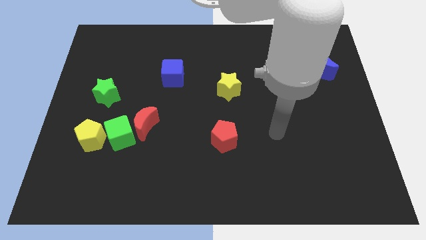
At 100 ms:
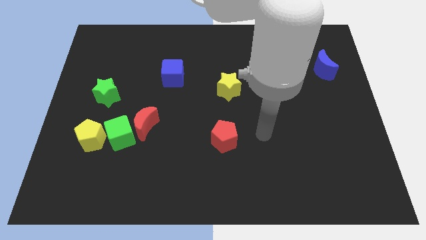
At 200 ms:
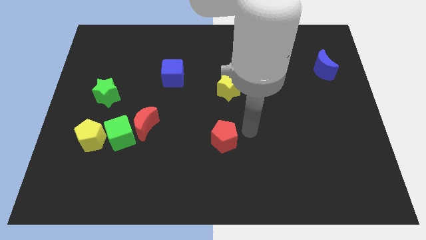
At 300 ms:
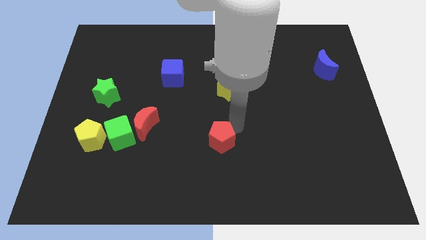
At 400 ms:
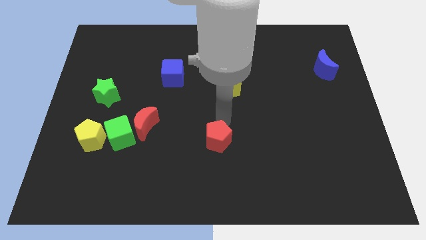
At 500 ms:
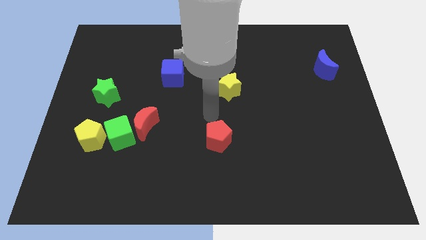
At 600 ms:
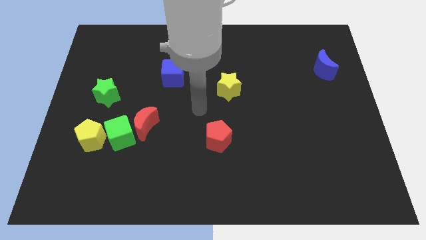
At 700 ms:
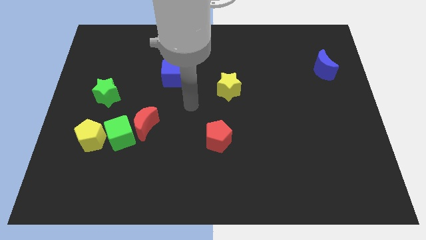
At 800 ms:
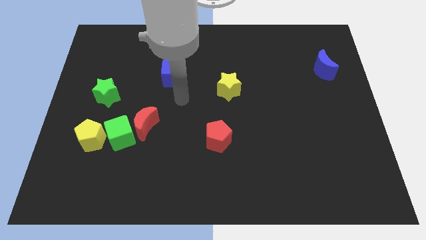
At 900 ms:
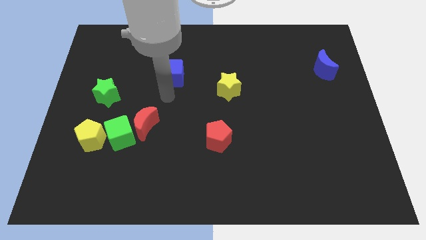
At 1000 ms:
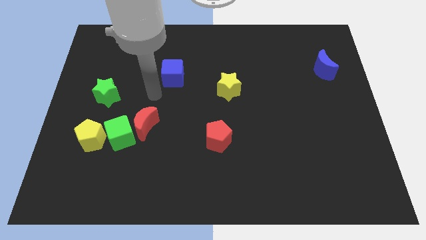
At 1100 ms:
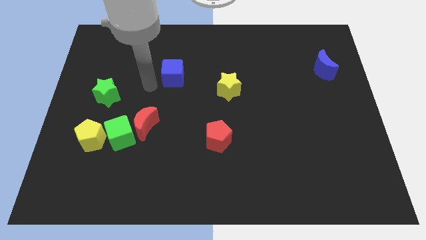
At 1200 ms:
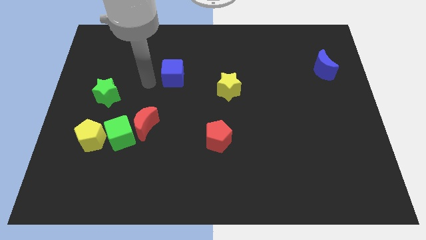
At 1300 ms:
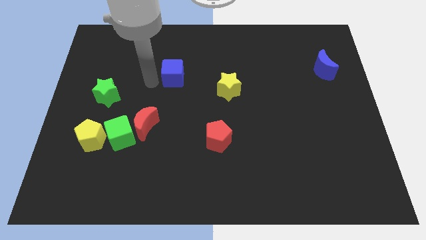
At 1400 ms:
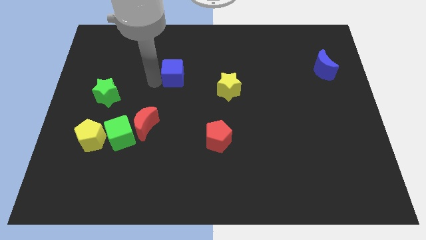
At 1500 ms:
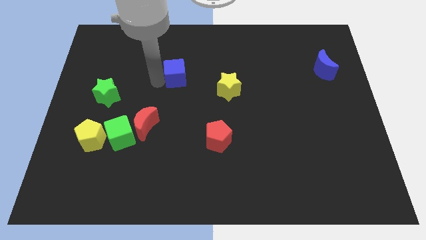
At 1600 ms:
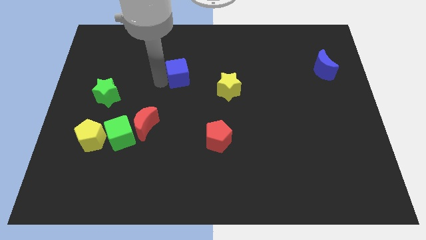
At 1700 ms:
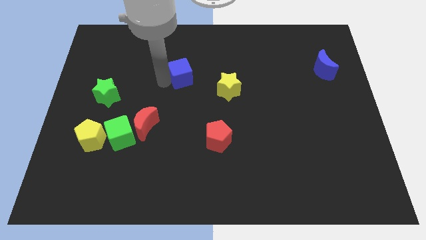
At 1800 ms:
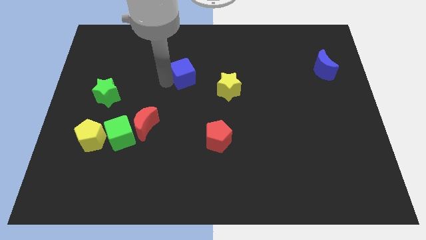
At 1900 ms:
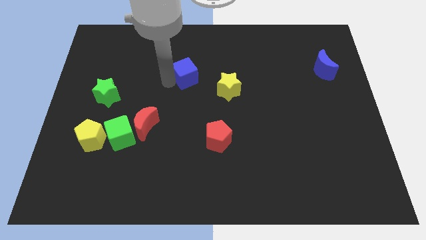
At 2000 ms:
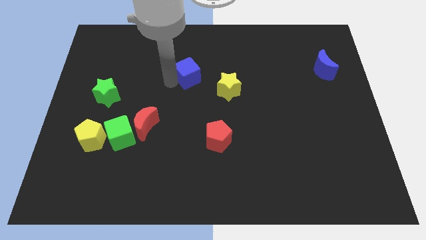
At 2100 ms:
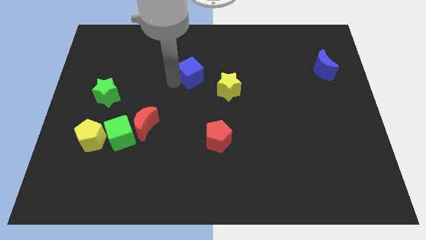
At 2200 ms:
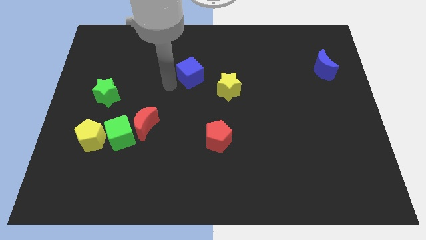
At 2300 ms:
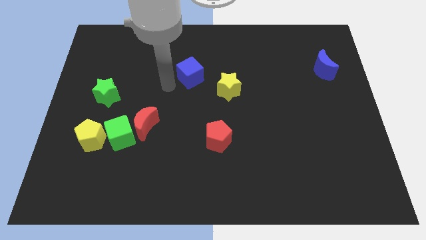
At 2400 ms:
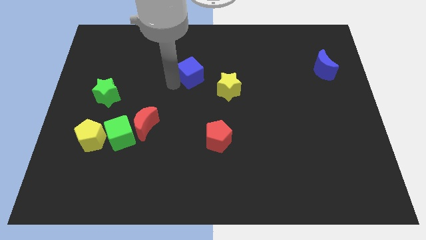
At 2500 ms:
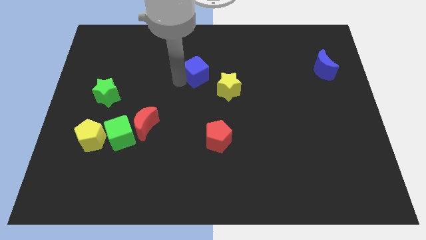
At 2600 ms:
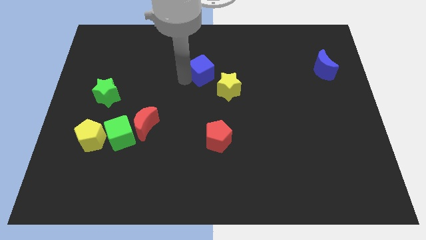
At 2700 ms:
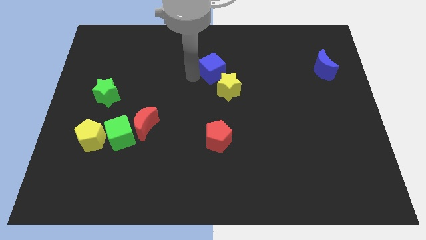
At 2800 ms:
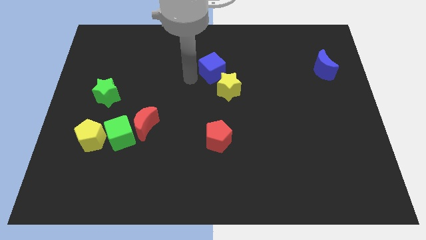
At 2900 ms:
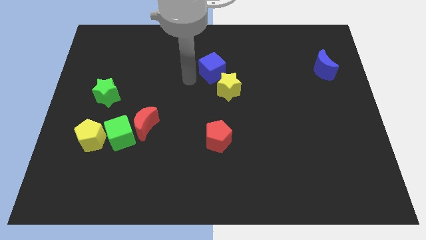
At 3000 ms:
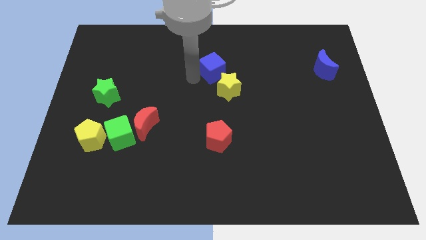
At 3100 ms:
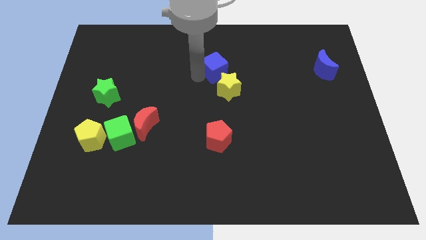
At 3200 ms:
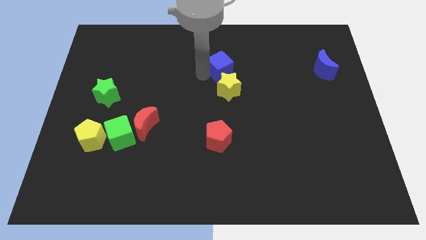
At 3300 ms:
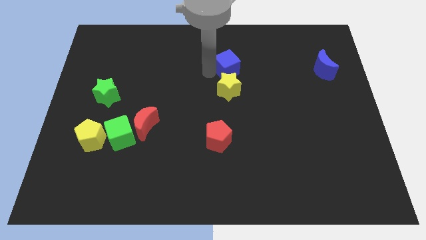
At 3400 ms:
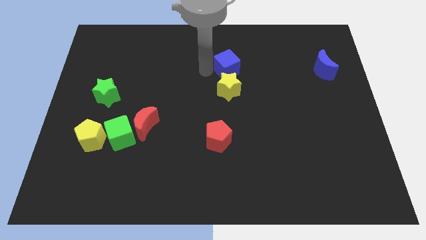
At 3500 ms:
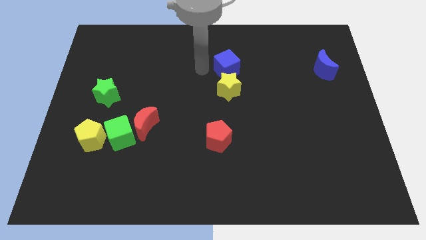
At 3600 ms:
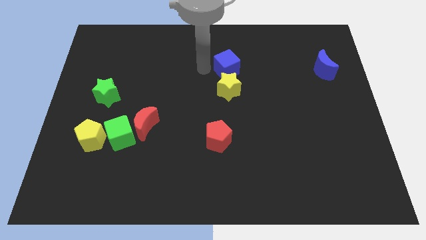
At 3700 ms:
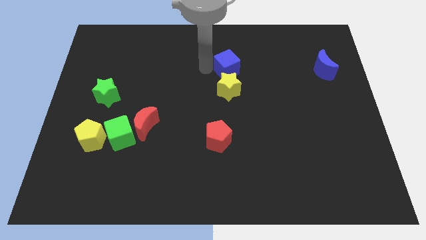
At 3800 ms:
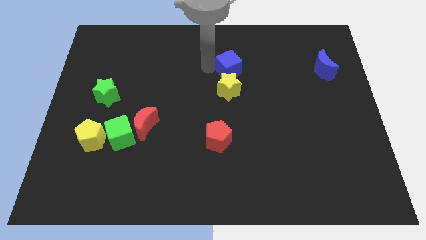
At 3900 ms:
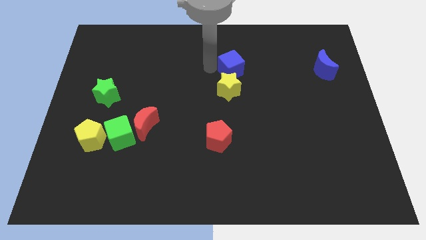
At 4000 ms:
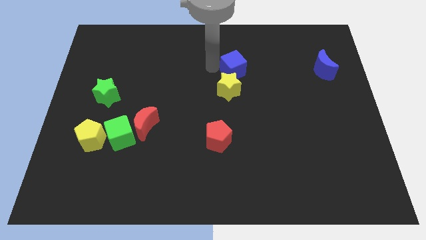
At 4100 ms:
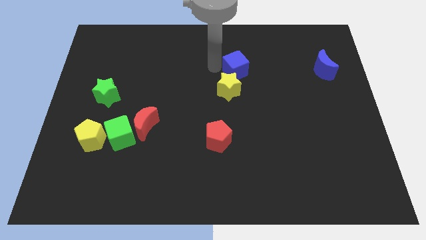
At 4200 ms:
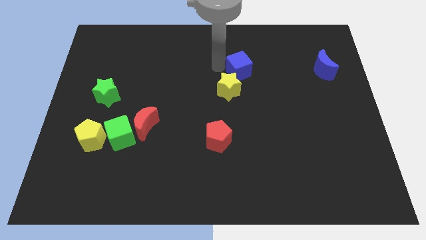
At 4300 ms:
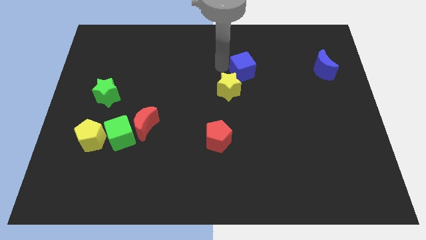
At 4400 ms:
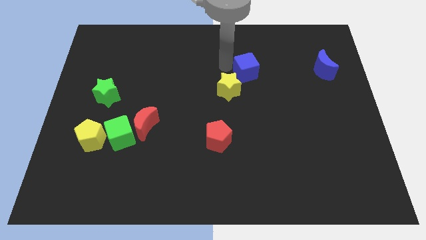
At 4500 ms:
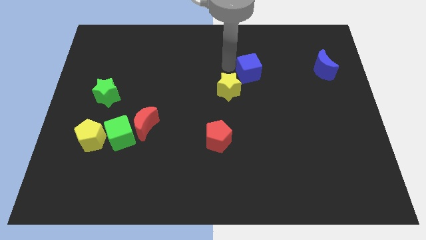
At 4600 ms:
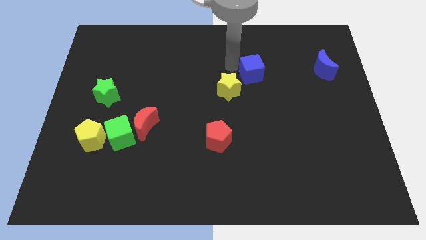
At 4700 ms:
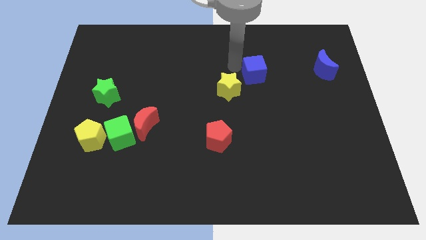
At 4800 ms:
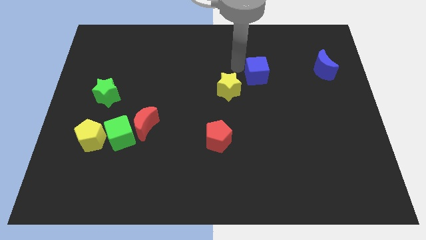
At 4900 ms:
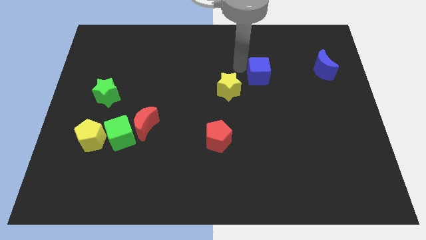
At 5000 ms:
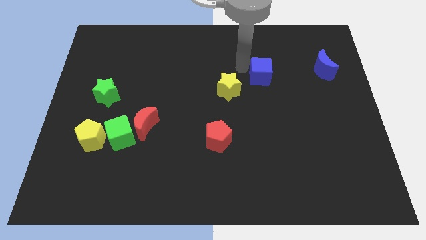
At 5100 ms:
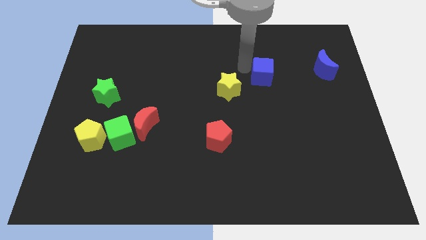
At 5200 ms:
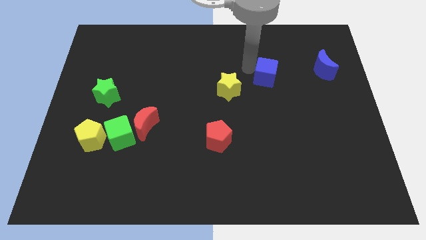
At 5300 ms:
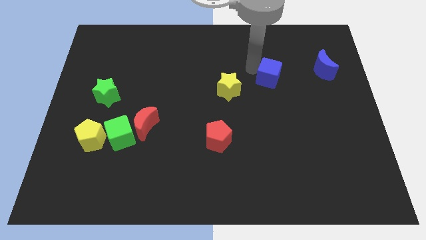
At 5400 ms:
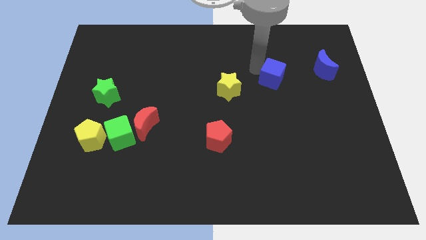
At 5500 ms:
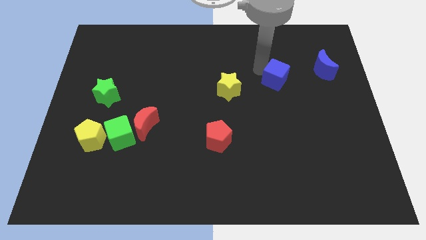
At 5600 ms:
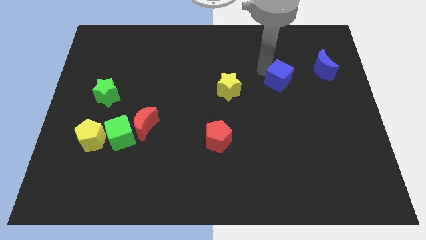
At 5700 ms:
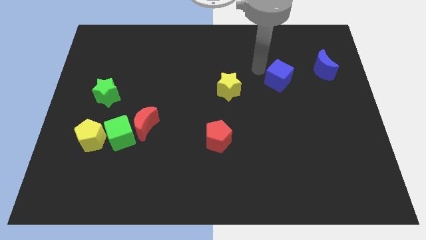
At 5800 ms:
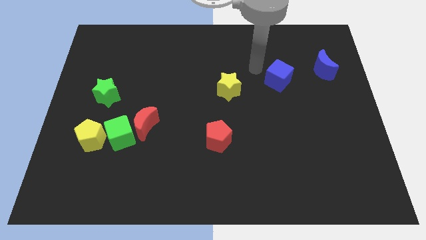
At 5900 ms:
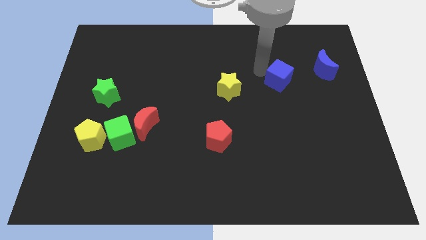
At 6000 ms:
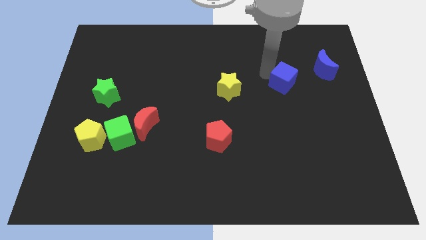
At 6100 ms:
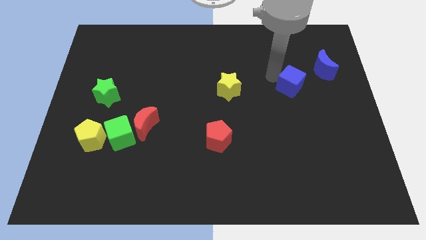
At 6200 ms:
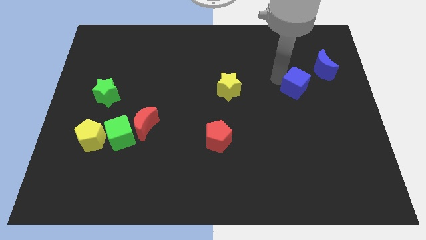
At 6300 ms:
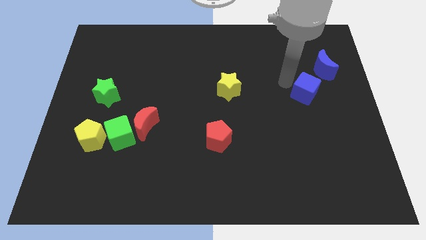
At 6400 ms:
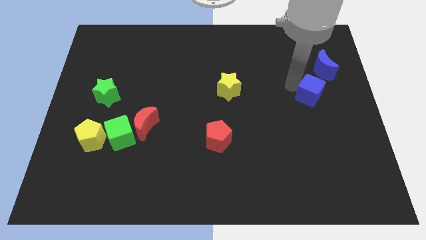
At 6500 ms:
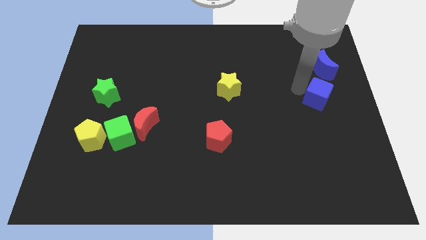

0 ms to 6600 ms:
move the blue cube to the center right
